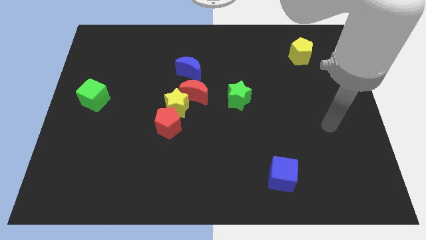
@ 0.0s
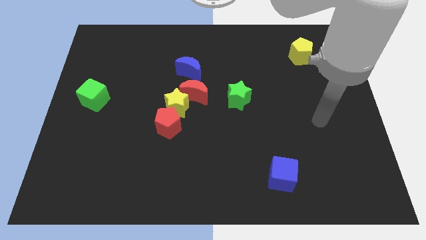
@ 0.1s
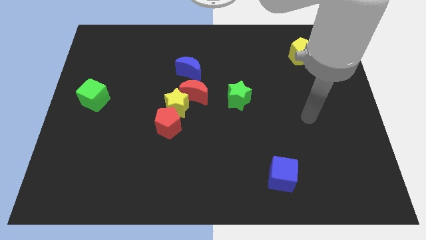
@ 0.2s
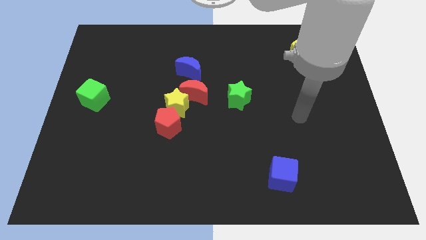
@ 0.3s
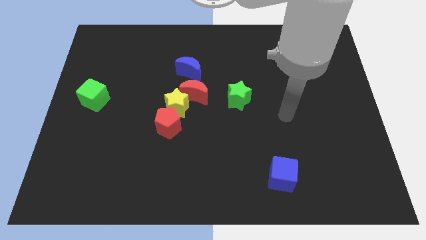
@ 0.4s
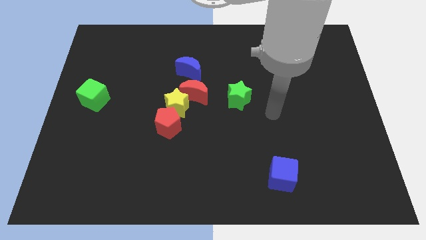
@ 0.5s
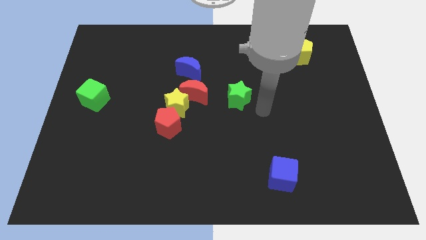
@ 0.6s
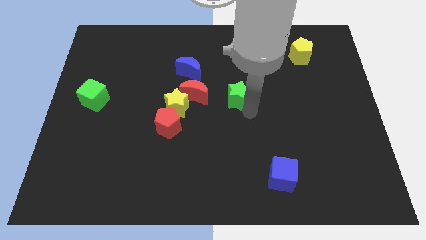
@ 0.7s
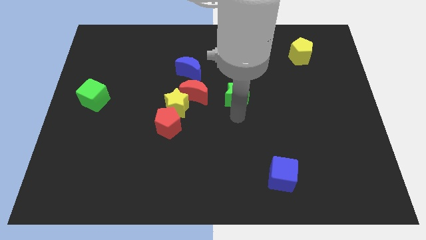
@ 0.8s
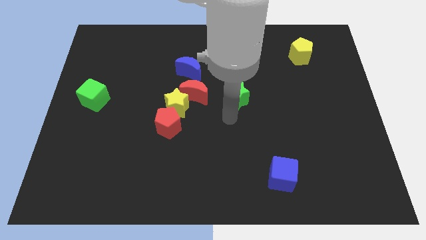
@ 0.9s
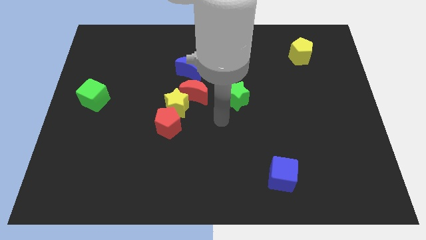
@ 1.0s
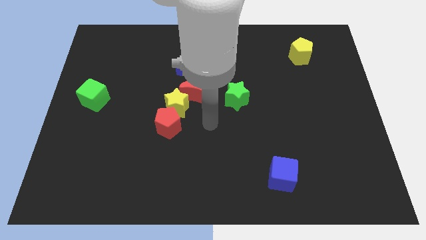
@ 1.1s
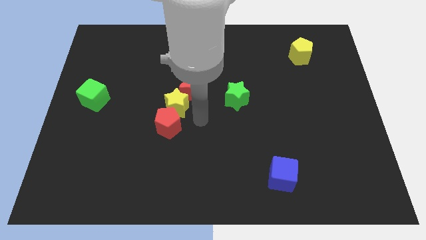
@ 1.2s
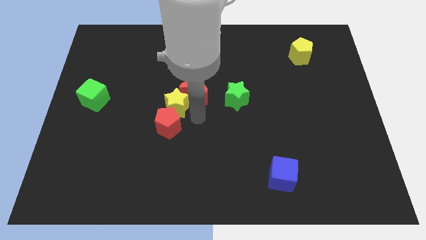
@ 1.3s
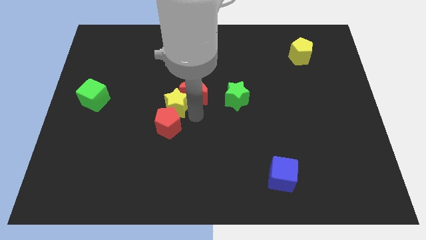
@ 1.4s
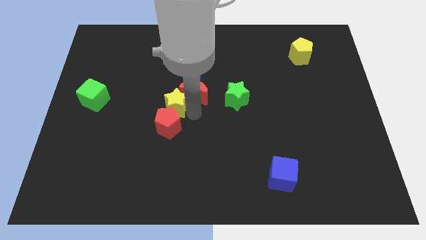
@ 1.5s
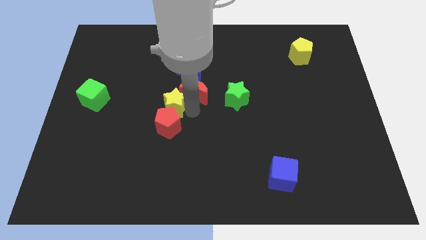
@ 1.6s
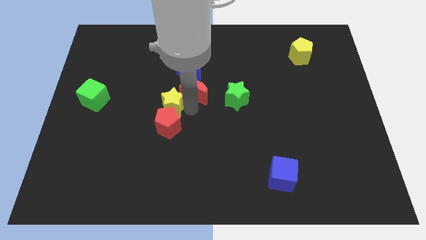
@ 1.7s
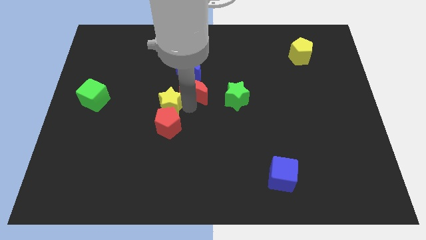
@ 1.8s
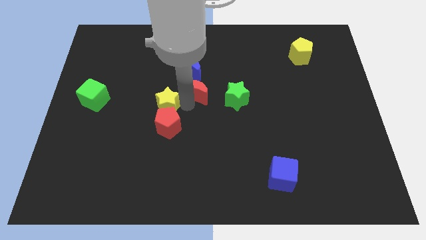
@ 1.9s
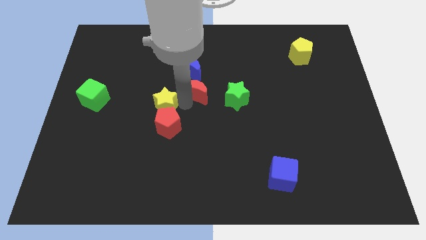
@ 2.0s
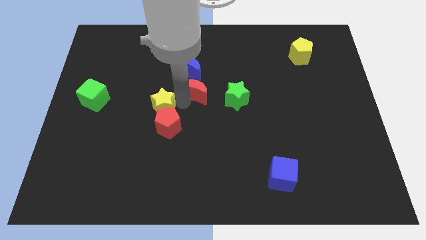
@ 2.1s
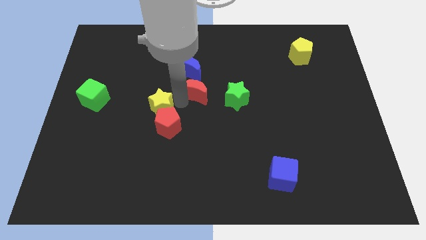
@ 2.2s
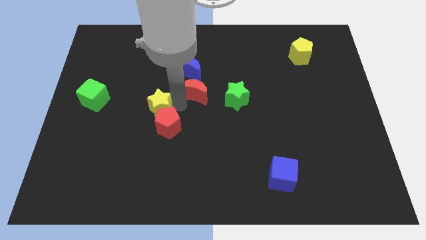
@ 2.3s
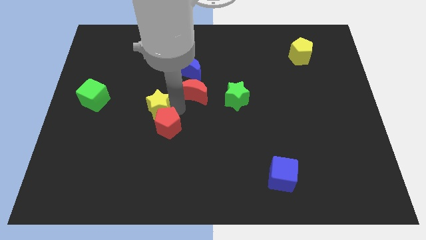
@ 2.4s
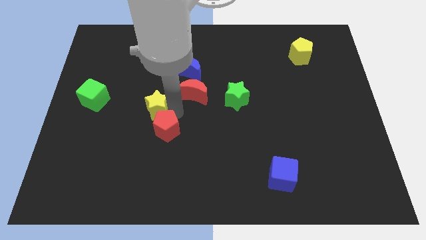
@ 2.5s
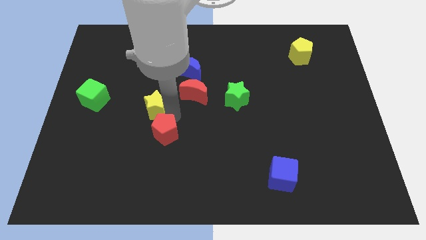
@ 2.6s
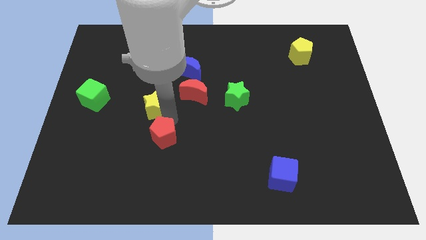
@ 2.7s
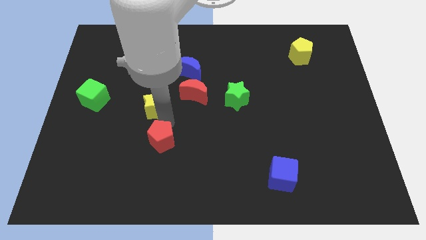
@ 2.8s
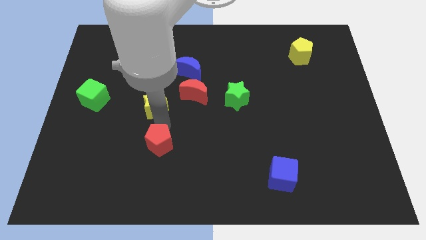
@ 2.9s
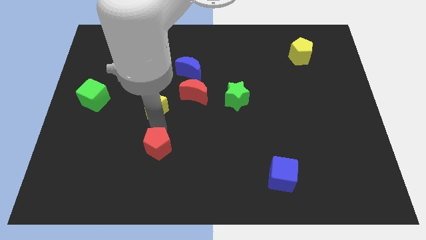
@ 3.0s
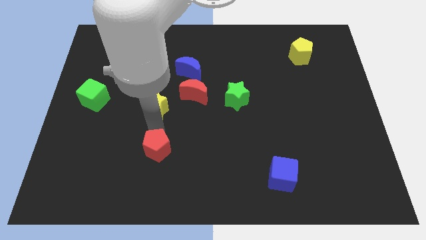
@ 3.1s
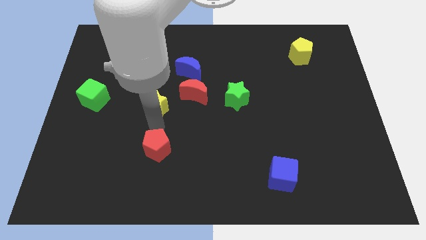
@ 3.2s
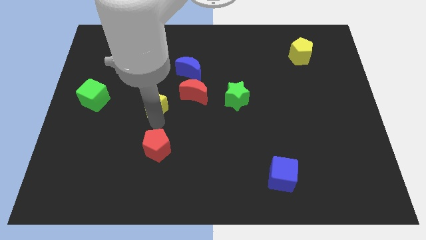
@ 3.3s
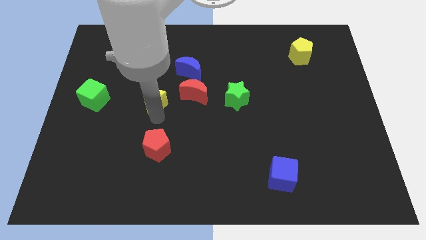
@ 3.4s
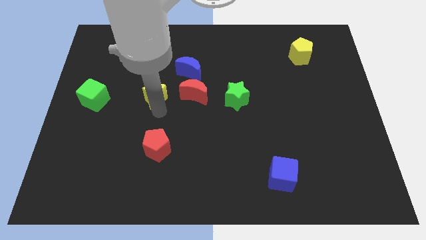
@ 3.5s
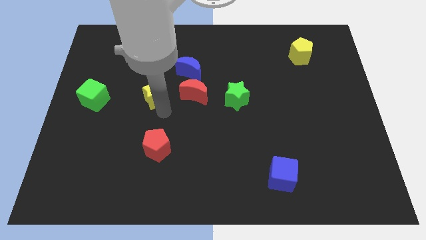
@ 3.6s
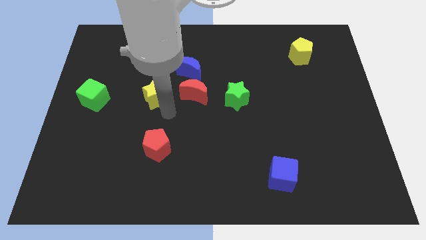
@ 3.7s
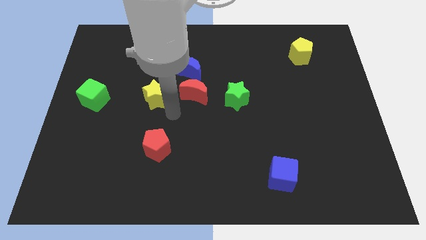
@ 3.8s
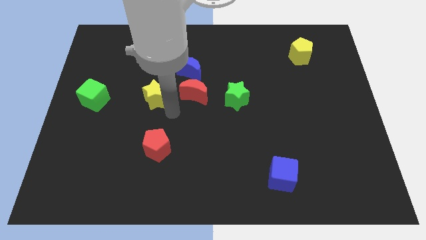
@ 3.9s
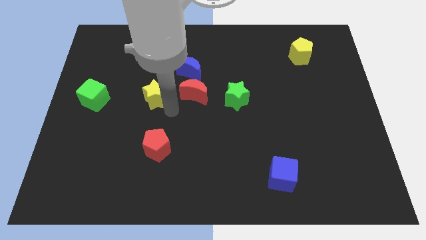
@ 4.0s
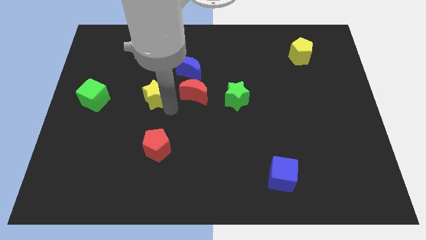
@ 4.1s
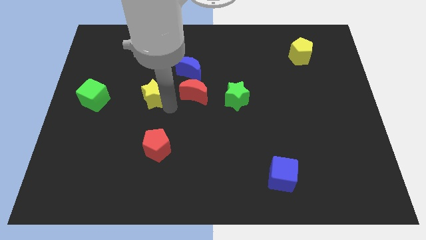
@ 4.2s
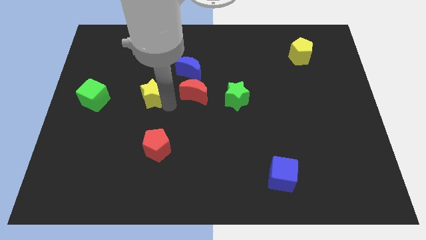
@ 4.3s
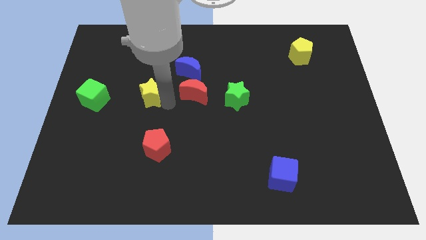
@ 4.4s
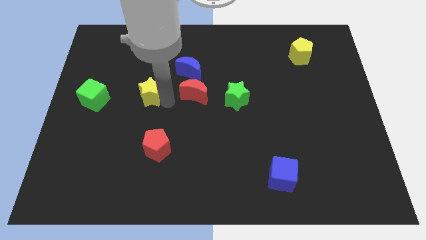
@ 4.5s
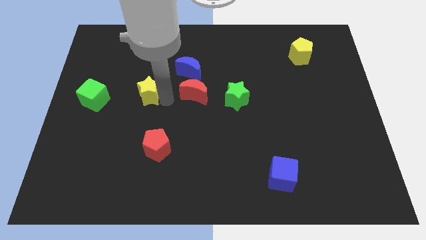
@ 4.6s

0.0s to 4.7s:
separate the yellow star from the red moon and red pentagon

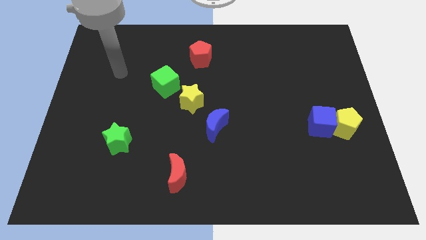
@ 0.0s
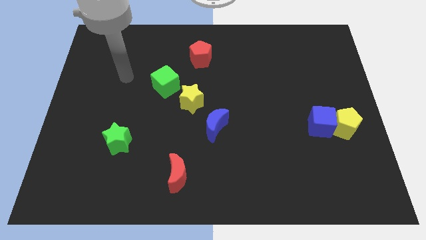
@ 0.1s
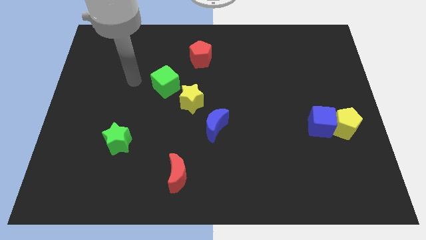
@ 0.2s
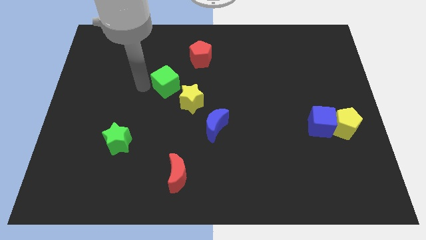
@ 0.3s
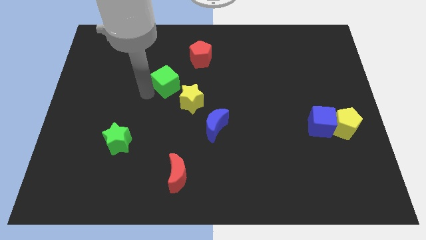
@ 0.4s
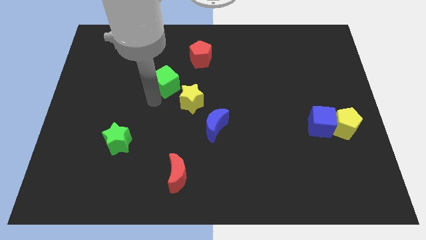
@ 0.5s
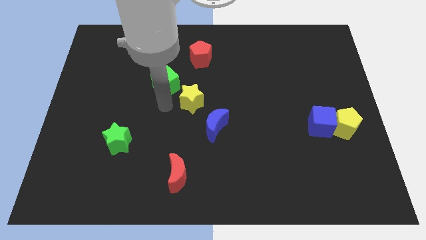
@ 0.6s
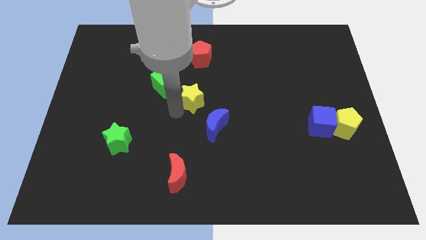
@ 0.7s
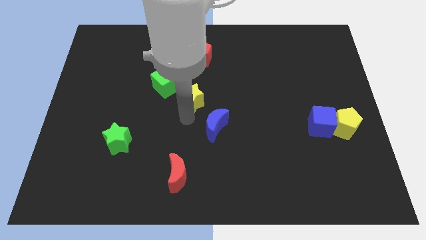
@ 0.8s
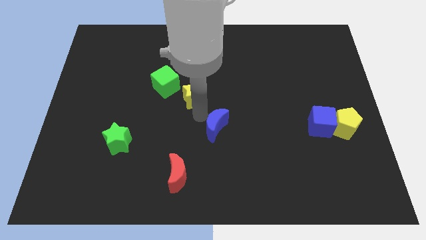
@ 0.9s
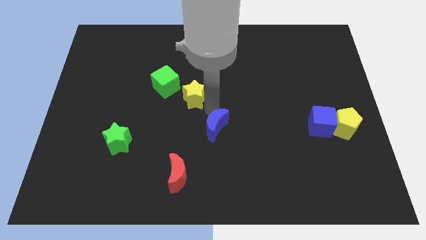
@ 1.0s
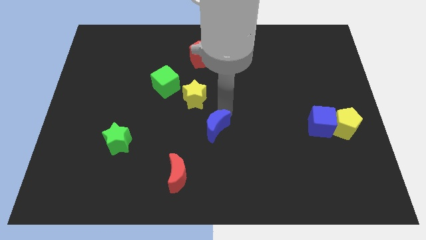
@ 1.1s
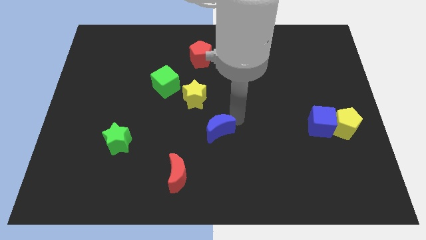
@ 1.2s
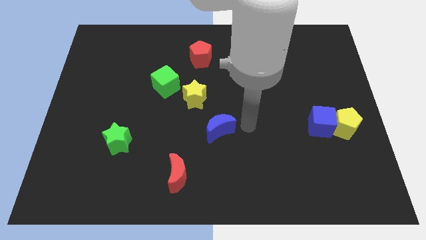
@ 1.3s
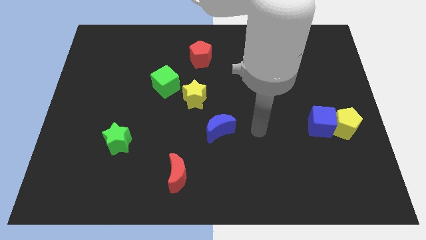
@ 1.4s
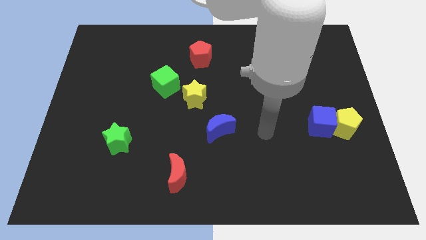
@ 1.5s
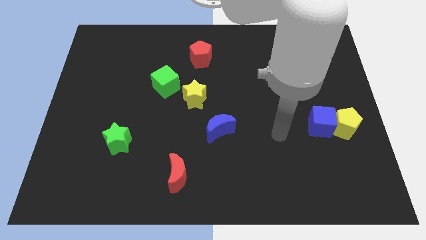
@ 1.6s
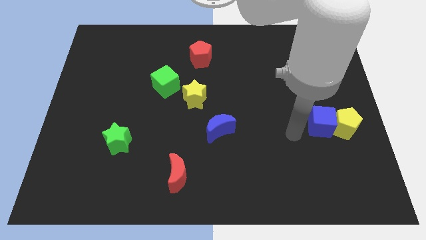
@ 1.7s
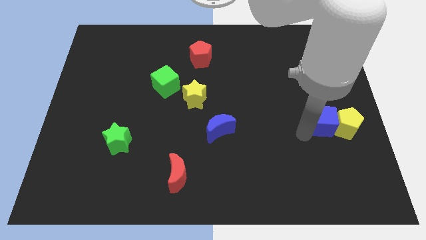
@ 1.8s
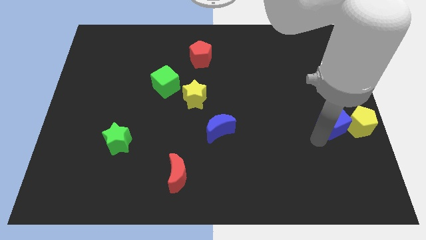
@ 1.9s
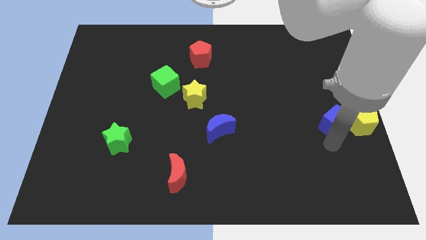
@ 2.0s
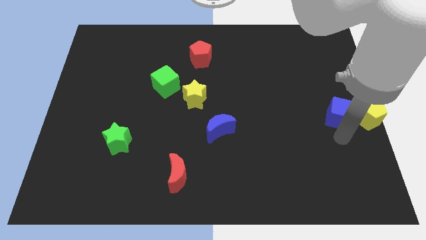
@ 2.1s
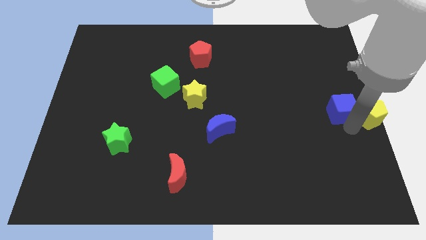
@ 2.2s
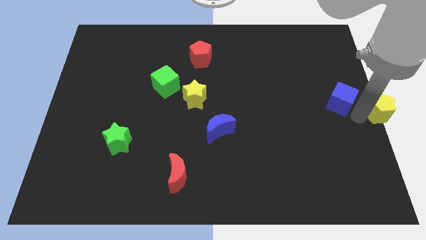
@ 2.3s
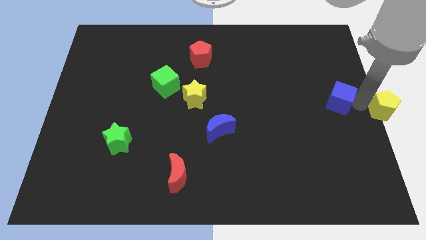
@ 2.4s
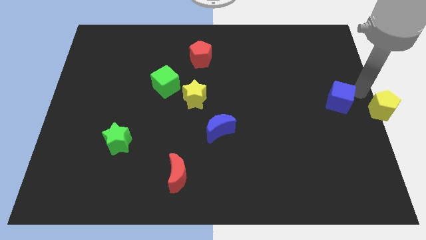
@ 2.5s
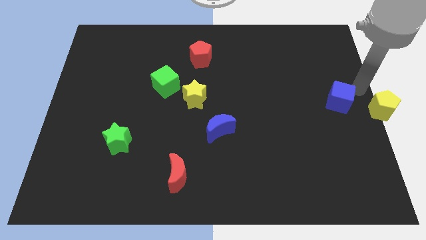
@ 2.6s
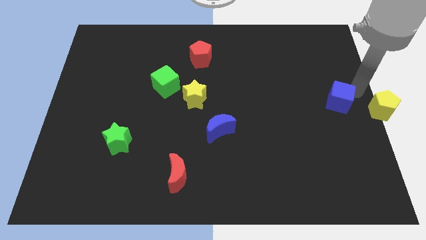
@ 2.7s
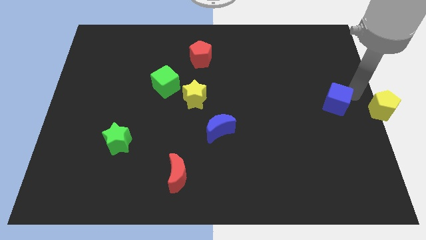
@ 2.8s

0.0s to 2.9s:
move the blue cube away from the yellow pentagon

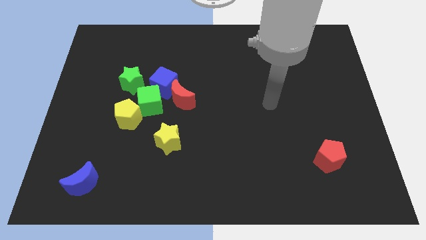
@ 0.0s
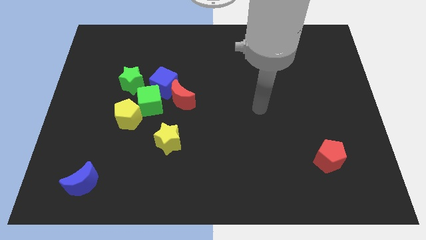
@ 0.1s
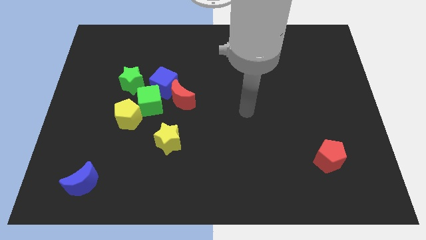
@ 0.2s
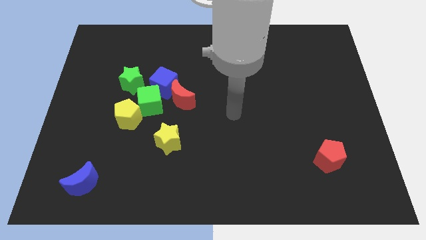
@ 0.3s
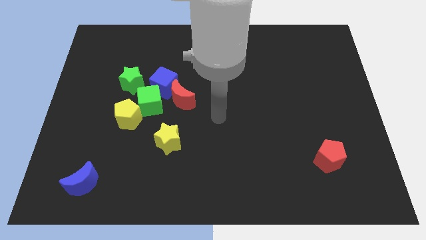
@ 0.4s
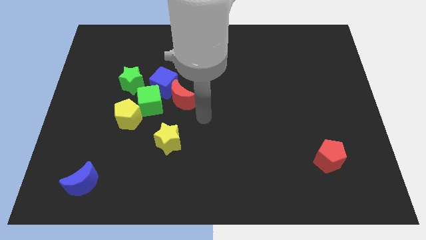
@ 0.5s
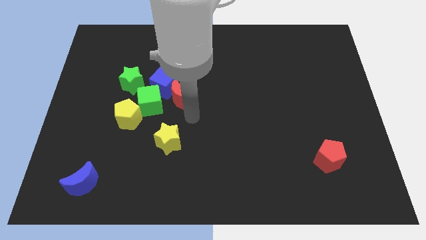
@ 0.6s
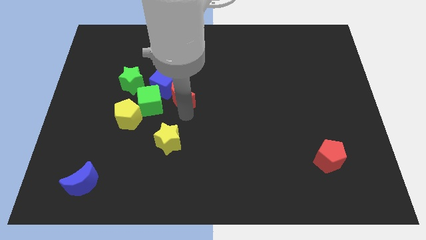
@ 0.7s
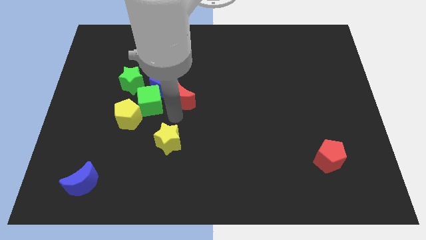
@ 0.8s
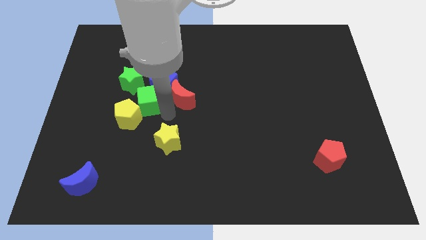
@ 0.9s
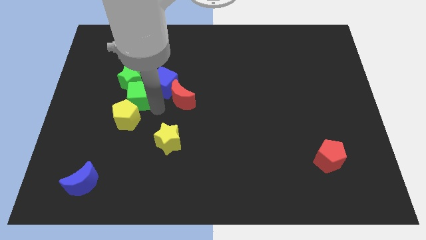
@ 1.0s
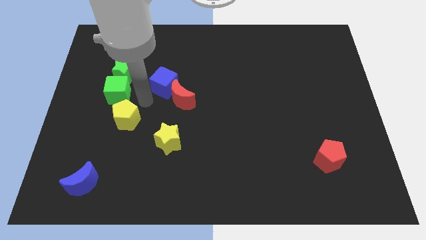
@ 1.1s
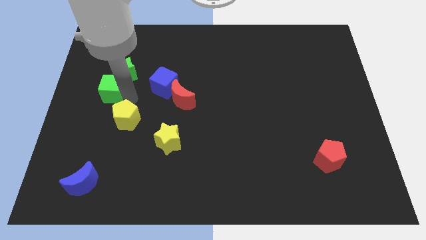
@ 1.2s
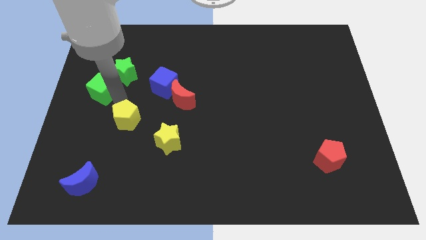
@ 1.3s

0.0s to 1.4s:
pull the yellow pentagon apart from the green cube

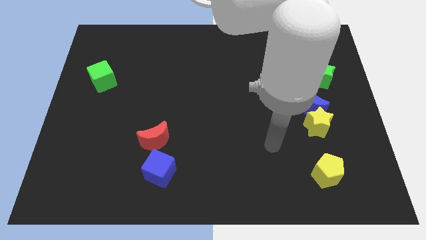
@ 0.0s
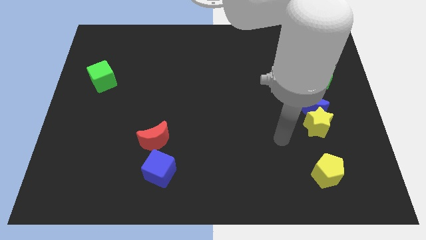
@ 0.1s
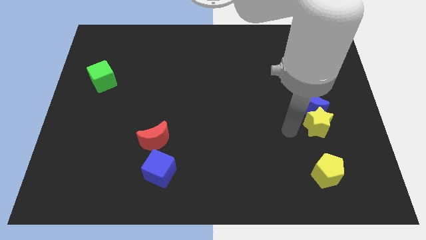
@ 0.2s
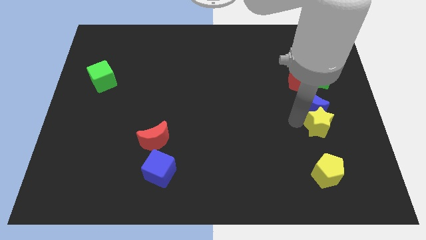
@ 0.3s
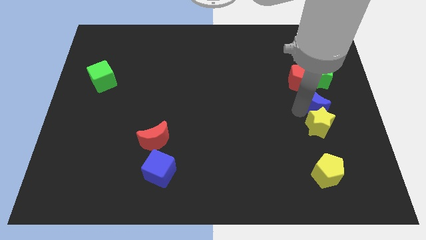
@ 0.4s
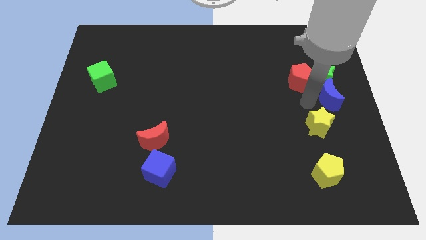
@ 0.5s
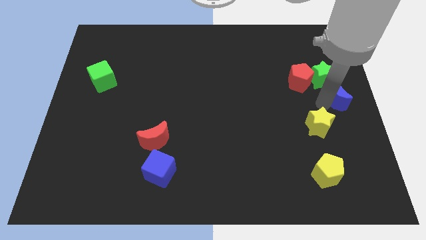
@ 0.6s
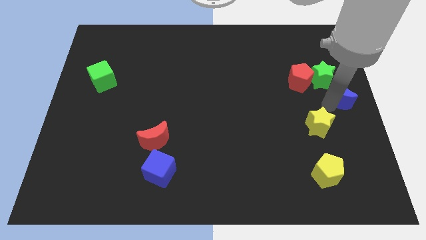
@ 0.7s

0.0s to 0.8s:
pull the yellow star apart from the blue moon
